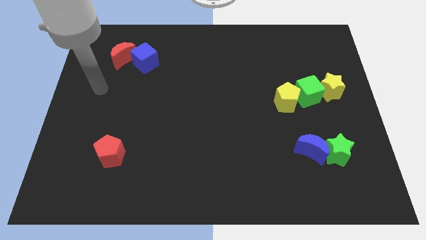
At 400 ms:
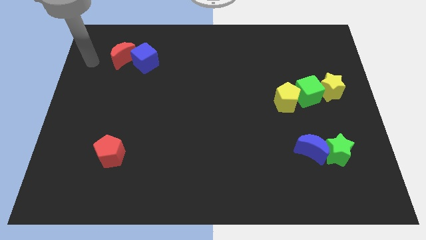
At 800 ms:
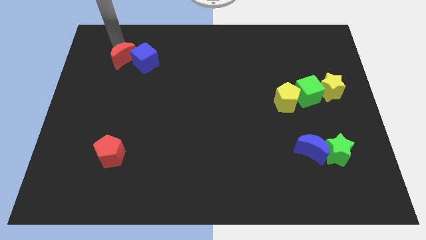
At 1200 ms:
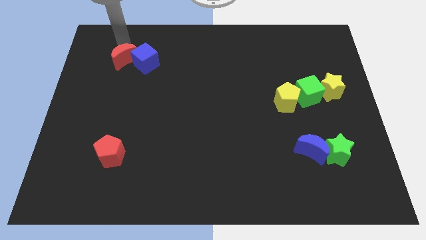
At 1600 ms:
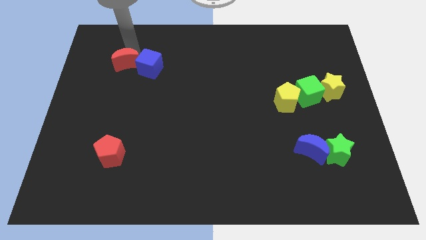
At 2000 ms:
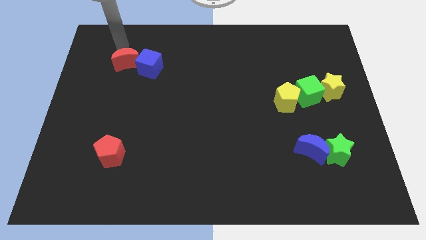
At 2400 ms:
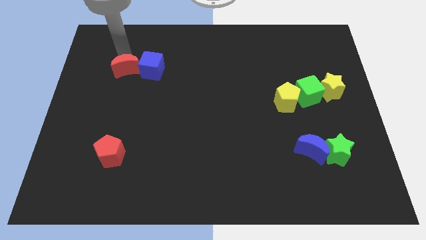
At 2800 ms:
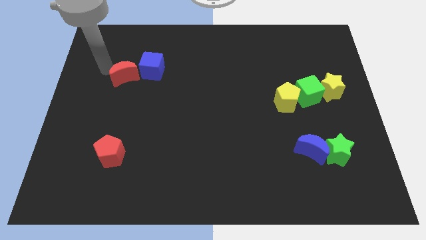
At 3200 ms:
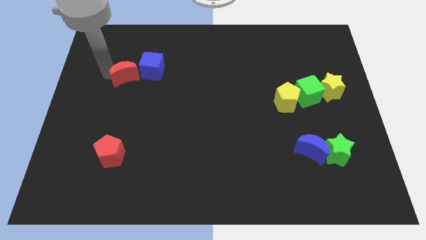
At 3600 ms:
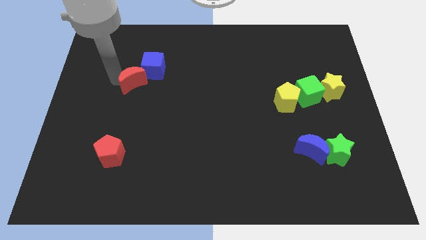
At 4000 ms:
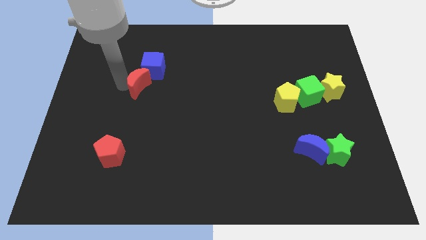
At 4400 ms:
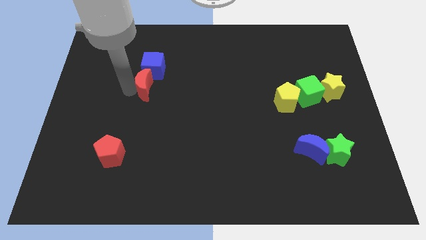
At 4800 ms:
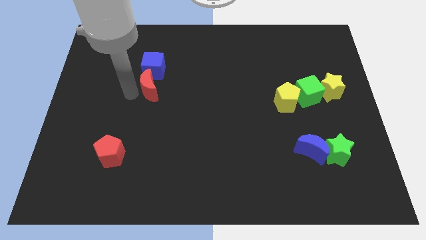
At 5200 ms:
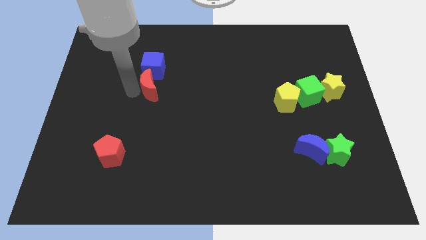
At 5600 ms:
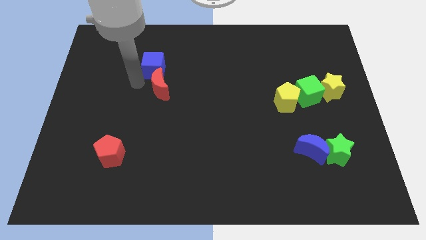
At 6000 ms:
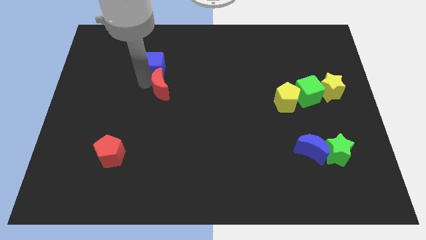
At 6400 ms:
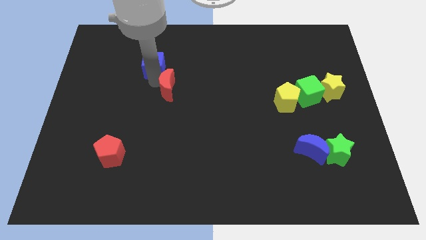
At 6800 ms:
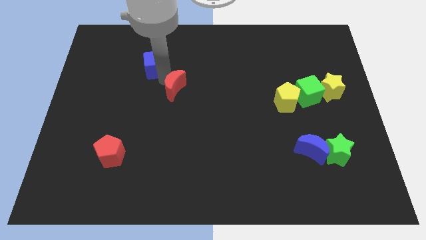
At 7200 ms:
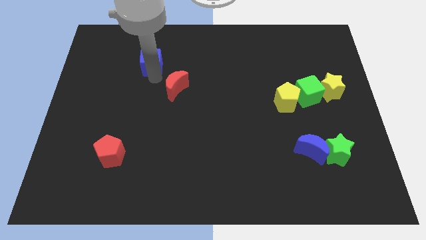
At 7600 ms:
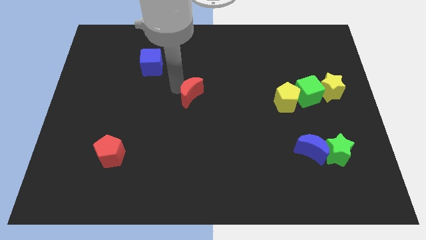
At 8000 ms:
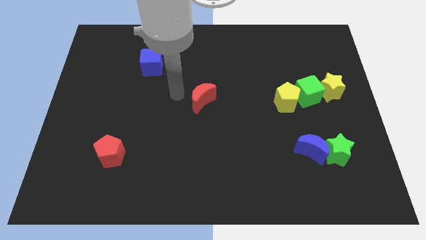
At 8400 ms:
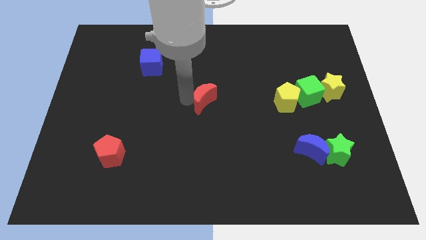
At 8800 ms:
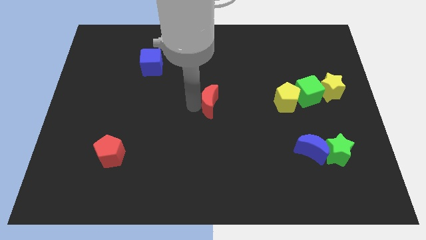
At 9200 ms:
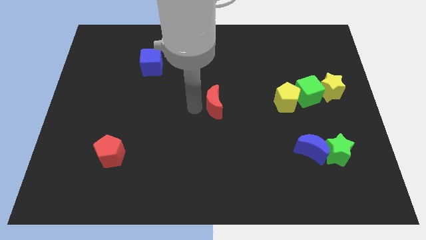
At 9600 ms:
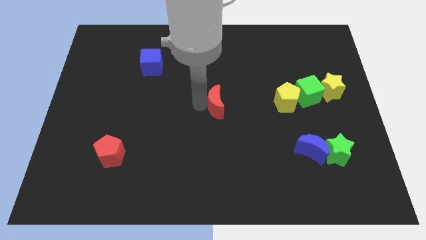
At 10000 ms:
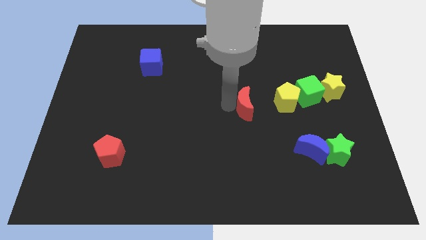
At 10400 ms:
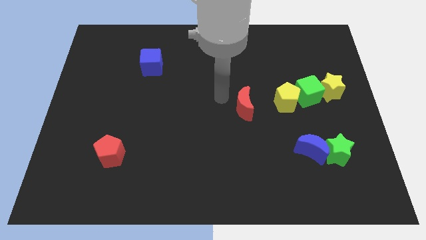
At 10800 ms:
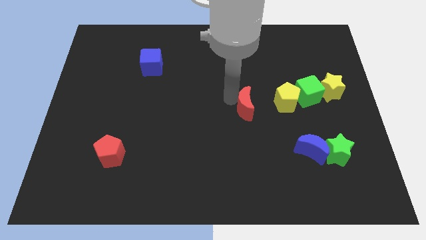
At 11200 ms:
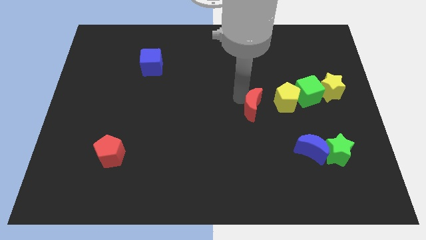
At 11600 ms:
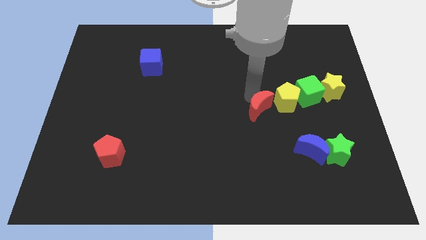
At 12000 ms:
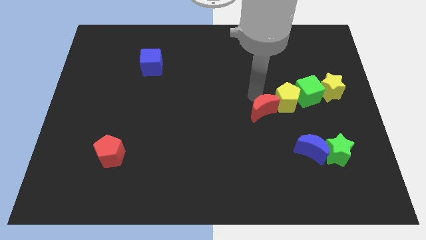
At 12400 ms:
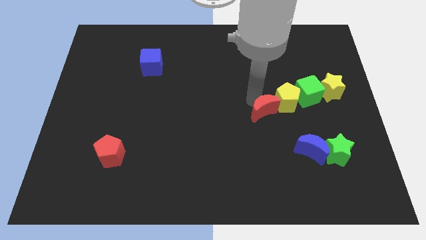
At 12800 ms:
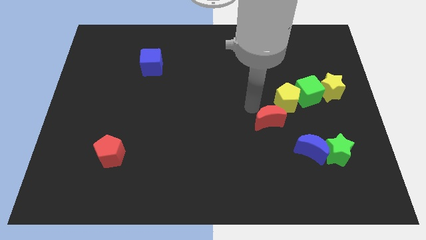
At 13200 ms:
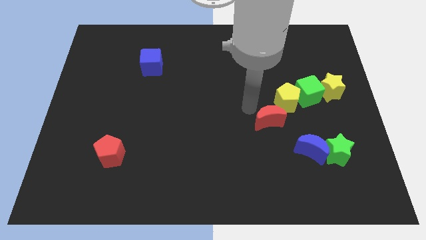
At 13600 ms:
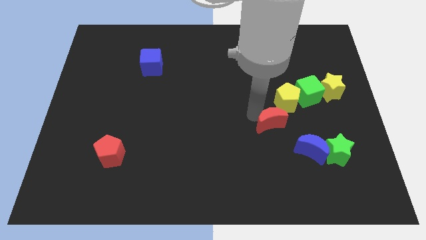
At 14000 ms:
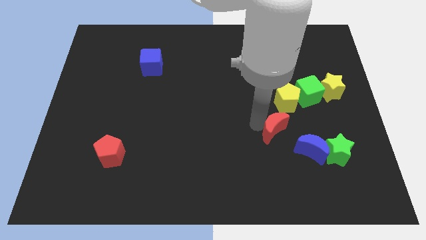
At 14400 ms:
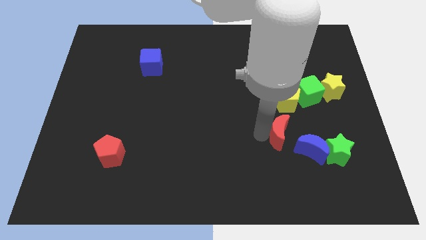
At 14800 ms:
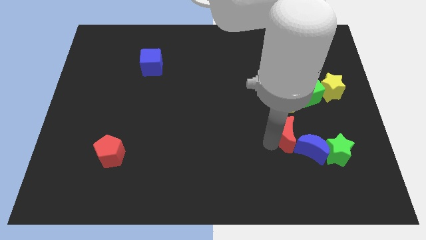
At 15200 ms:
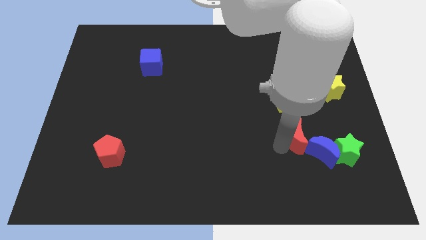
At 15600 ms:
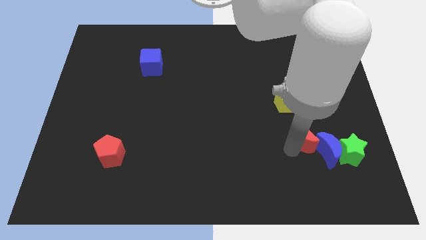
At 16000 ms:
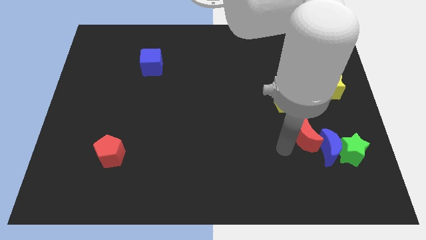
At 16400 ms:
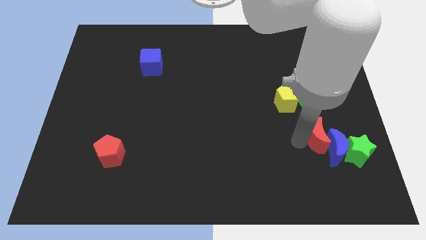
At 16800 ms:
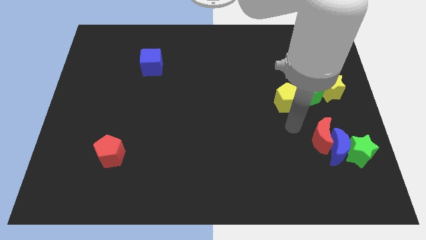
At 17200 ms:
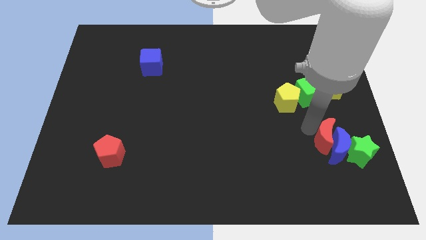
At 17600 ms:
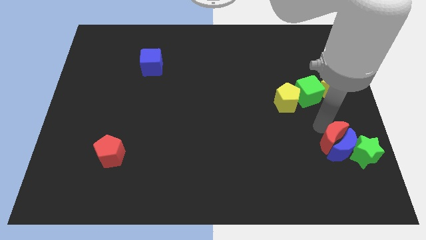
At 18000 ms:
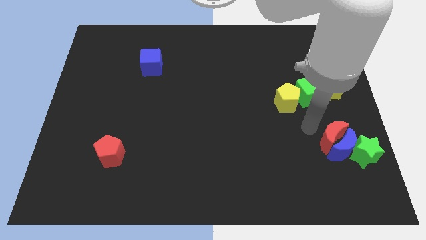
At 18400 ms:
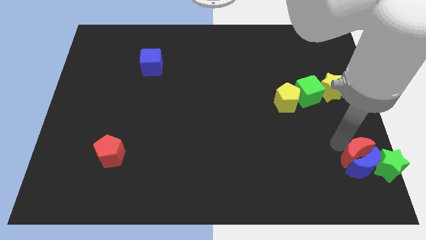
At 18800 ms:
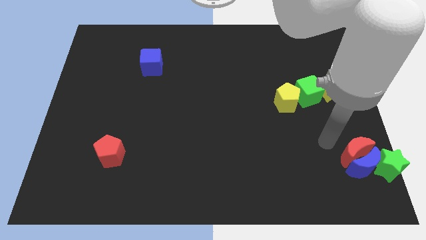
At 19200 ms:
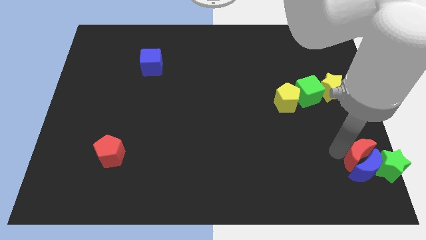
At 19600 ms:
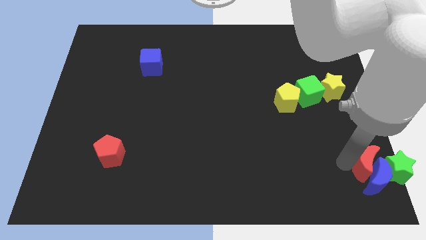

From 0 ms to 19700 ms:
slide the red moon to the green star

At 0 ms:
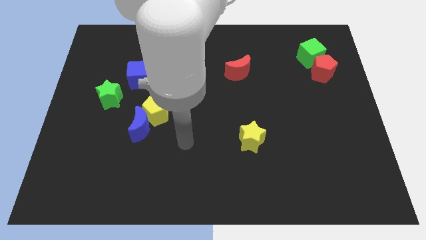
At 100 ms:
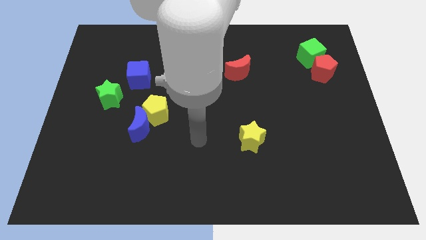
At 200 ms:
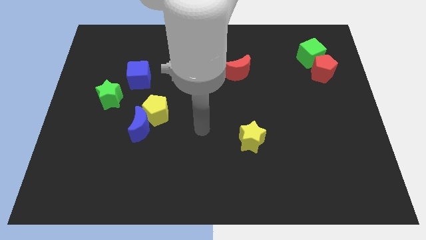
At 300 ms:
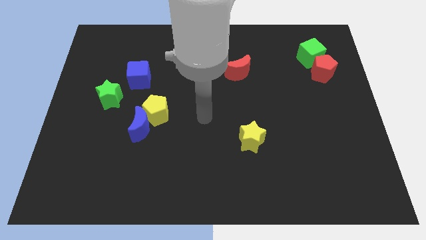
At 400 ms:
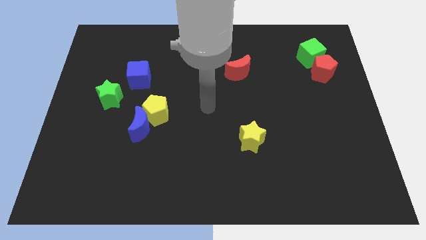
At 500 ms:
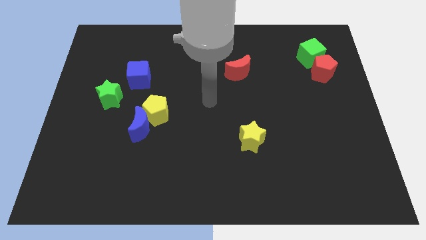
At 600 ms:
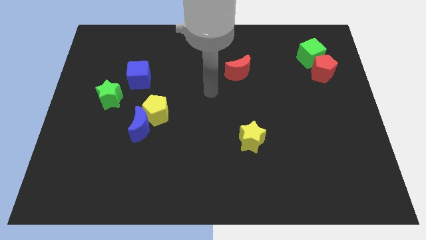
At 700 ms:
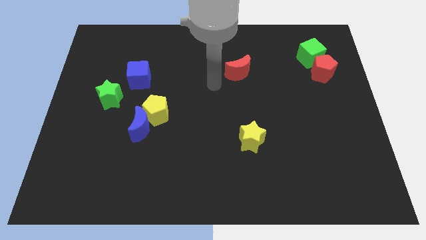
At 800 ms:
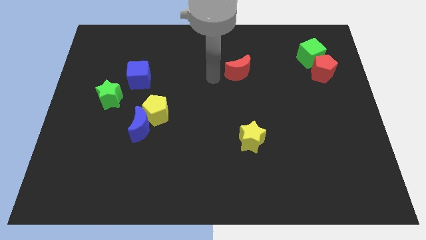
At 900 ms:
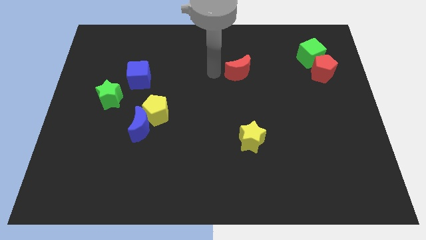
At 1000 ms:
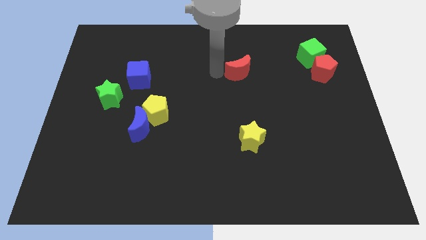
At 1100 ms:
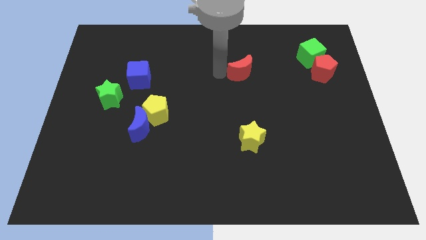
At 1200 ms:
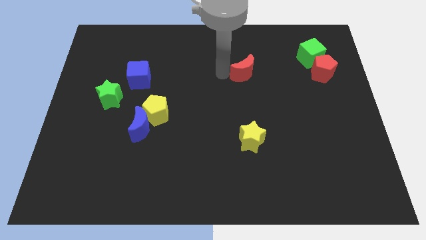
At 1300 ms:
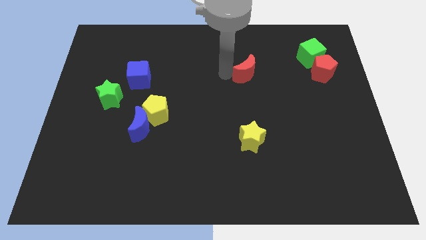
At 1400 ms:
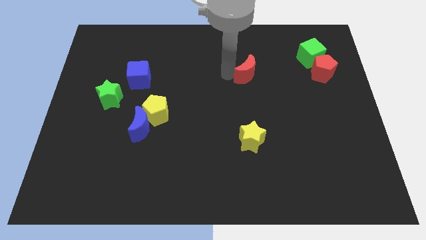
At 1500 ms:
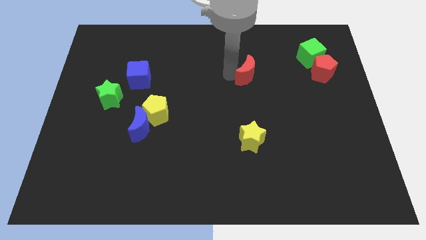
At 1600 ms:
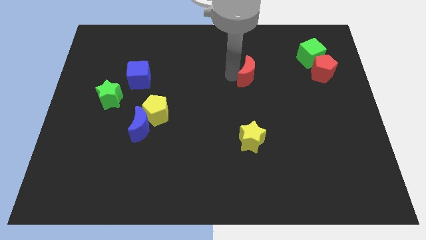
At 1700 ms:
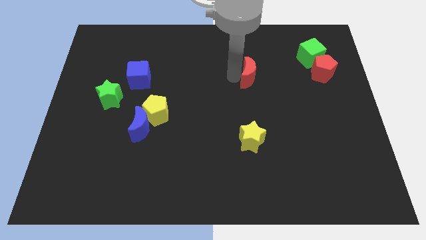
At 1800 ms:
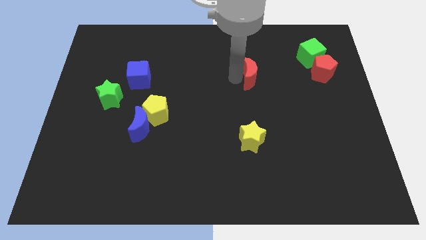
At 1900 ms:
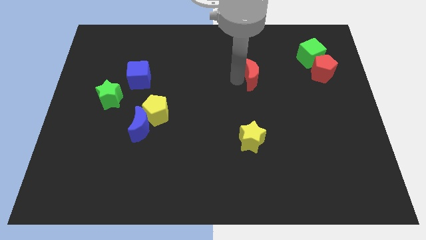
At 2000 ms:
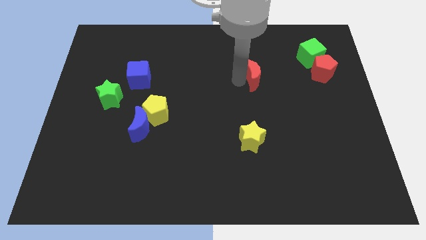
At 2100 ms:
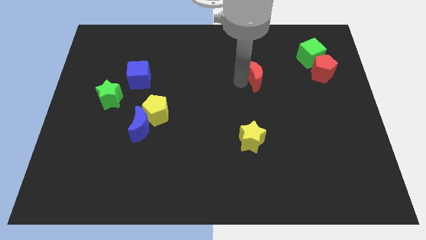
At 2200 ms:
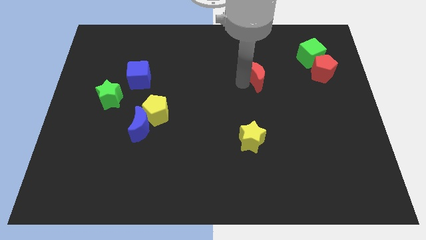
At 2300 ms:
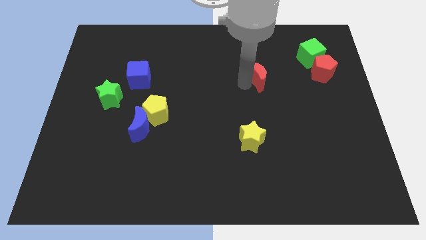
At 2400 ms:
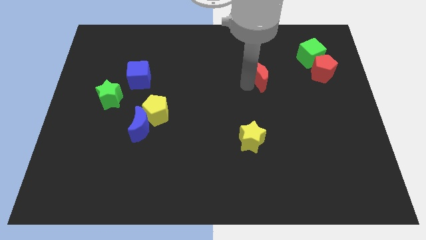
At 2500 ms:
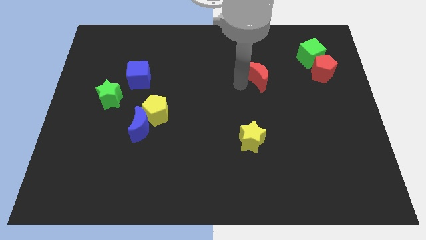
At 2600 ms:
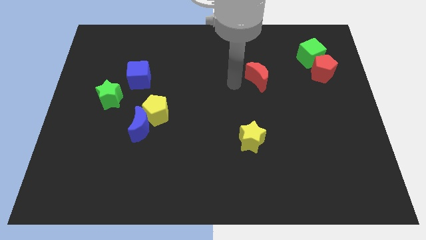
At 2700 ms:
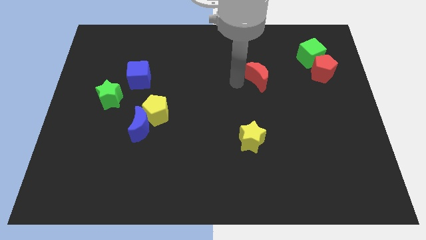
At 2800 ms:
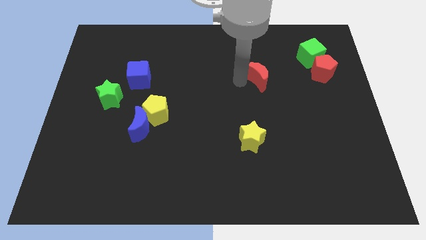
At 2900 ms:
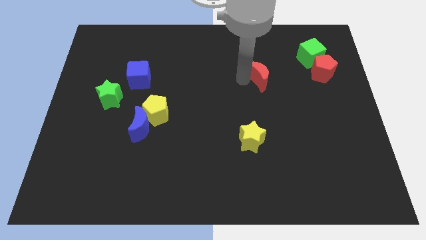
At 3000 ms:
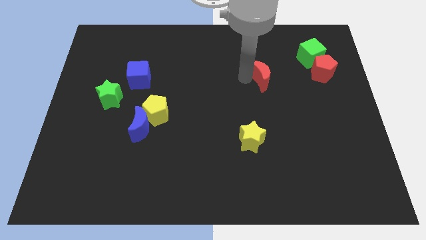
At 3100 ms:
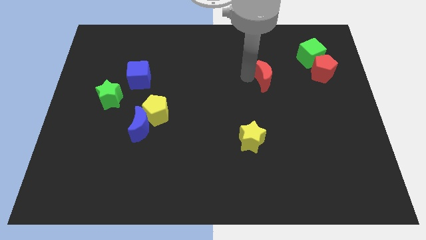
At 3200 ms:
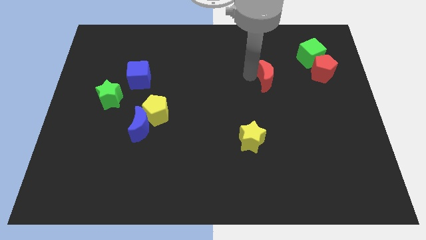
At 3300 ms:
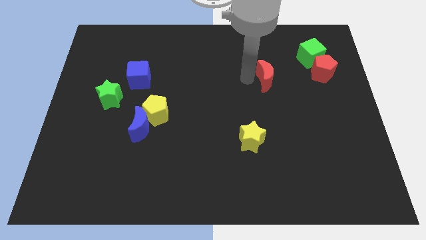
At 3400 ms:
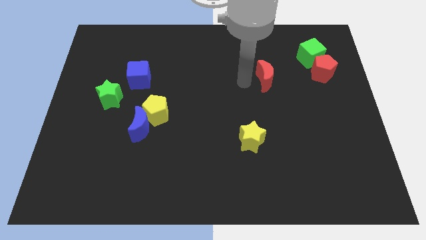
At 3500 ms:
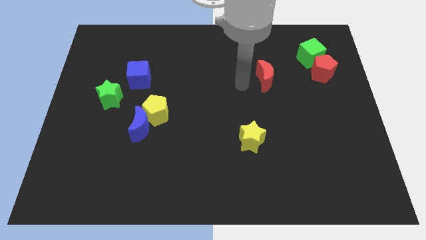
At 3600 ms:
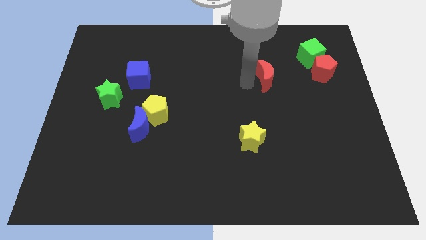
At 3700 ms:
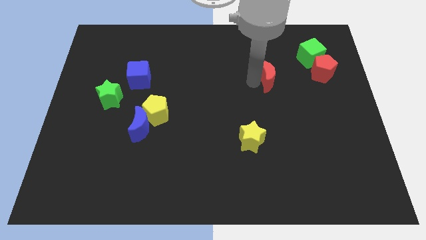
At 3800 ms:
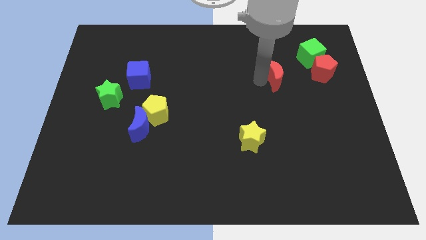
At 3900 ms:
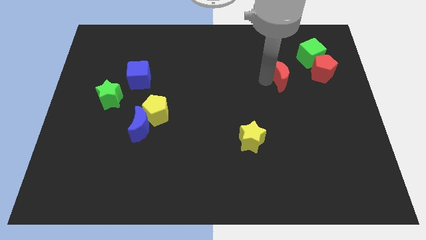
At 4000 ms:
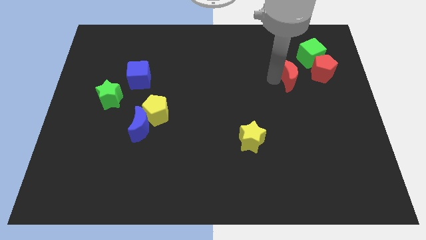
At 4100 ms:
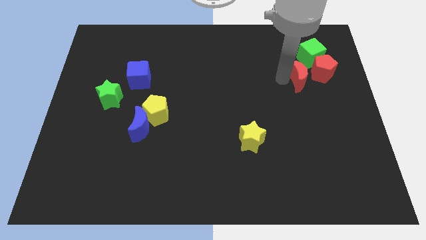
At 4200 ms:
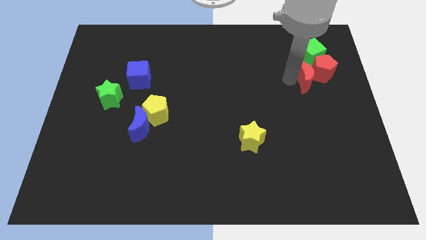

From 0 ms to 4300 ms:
slide the red moon next to the red pentagon
